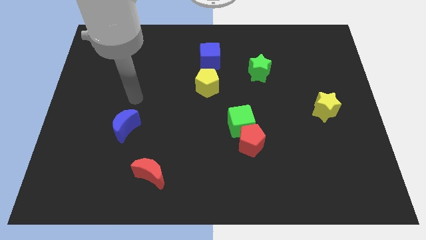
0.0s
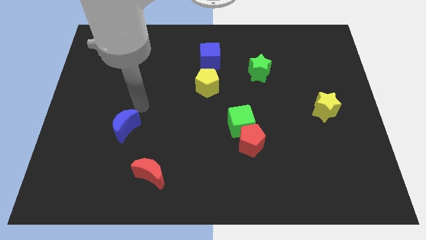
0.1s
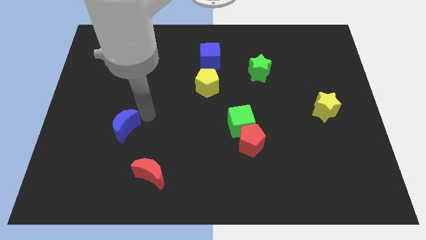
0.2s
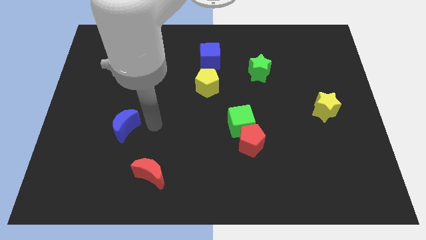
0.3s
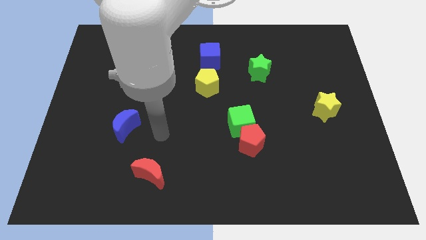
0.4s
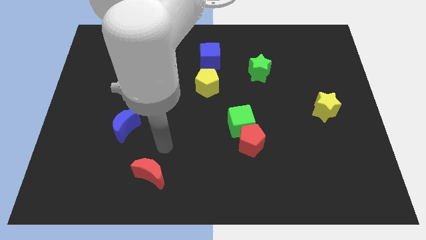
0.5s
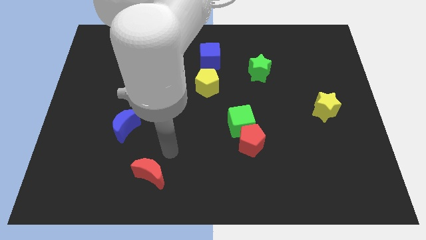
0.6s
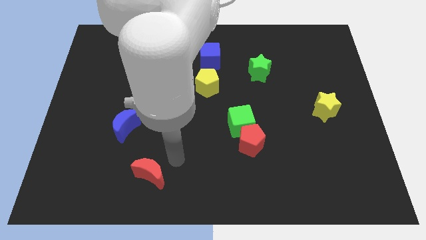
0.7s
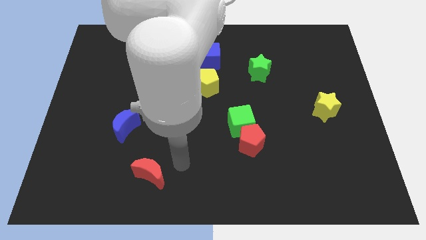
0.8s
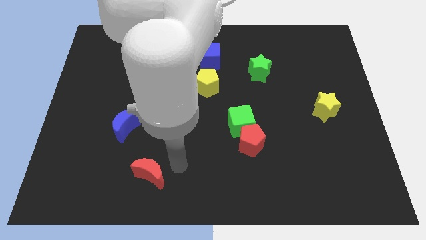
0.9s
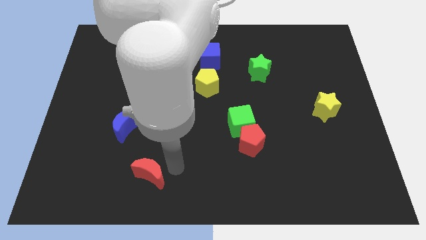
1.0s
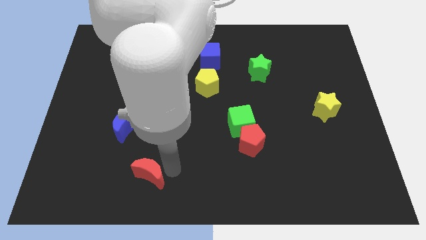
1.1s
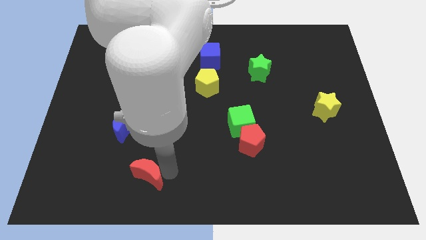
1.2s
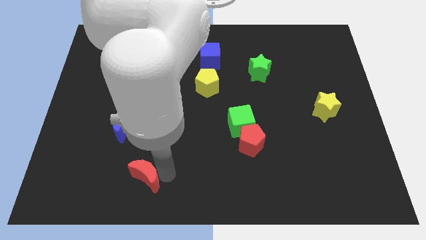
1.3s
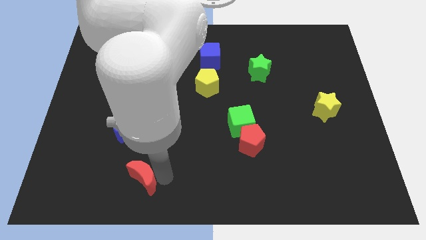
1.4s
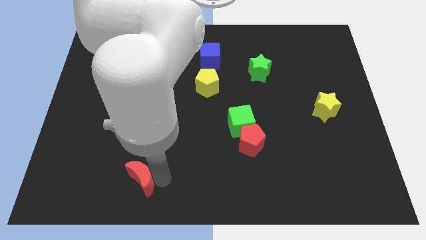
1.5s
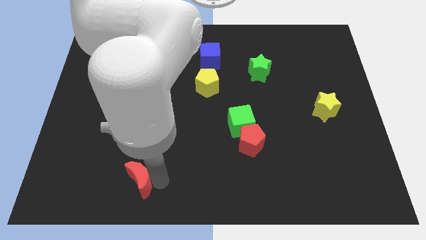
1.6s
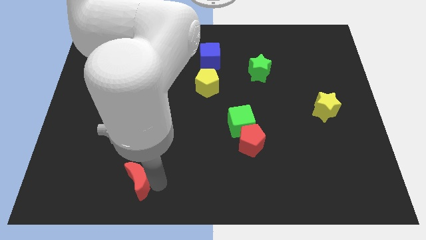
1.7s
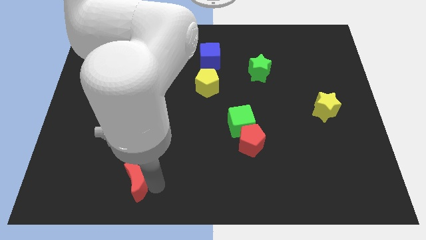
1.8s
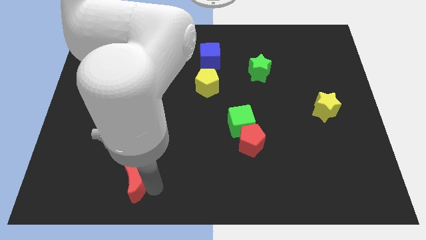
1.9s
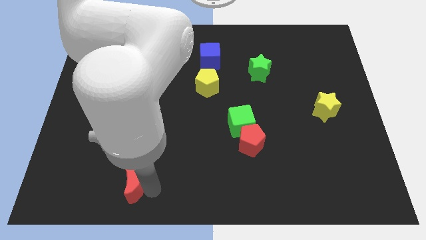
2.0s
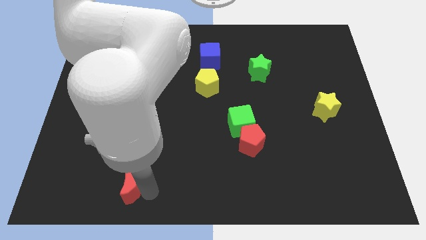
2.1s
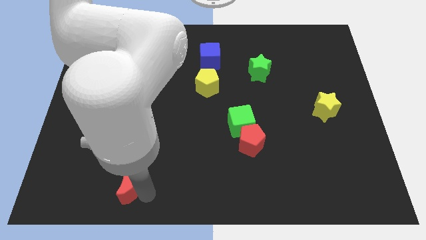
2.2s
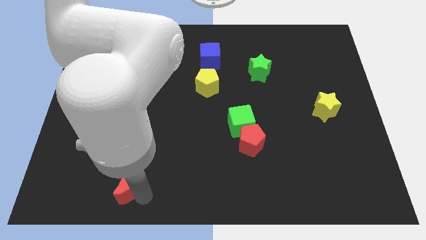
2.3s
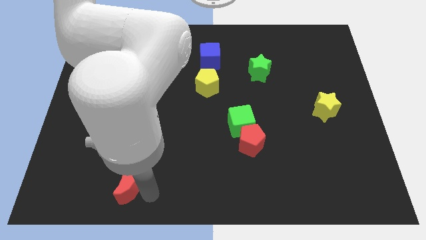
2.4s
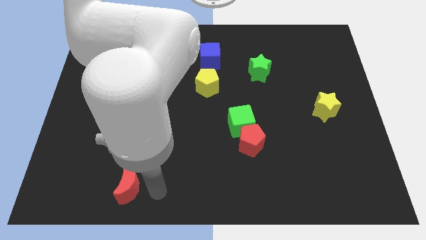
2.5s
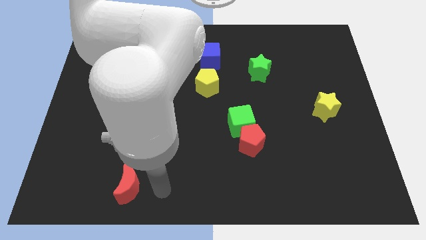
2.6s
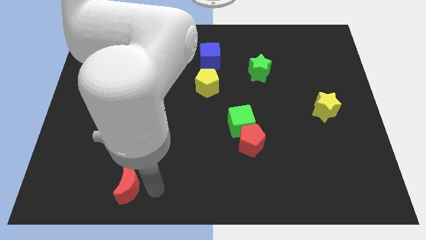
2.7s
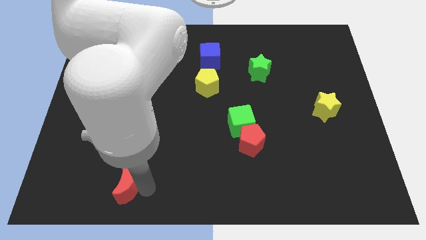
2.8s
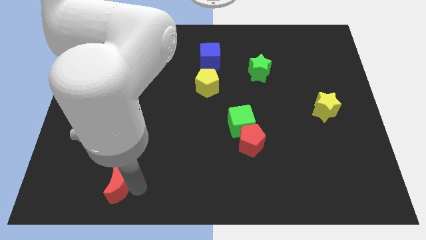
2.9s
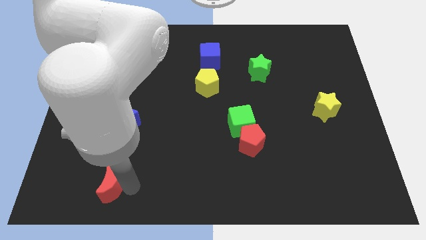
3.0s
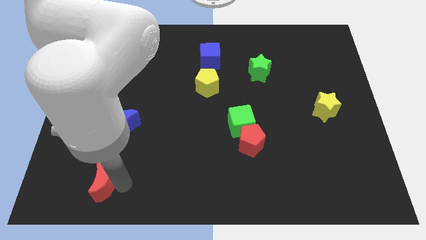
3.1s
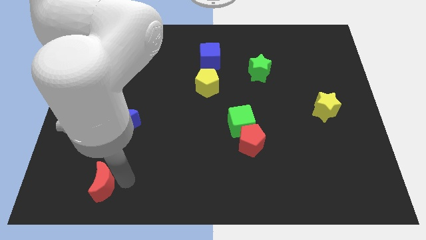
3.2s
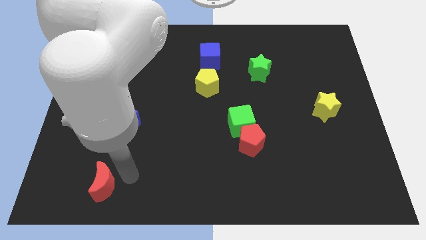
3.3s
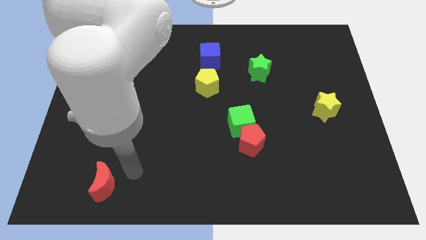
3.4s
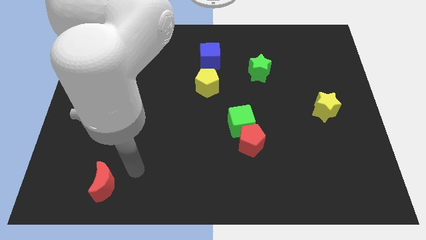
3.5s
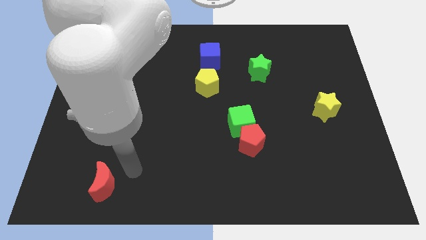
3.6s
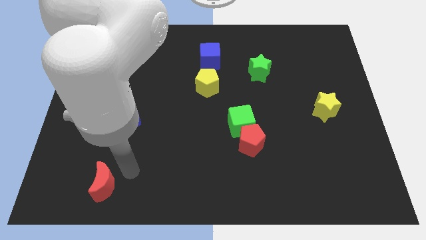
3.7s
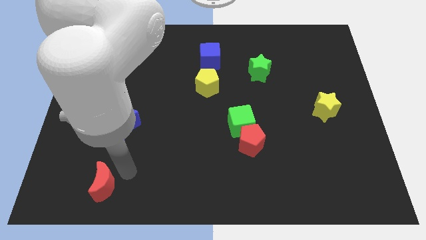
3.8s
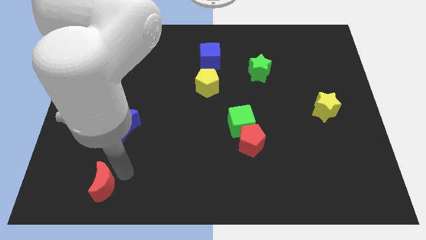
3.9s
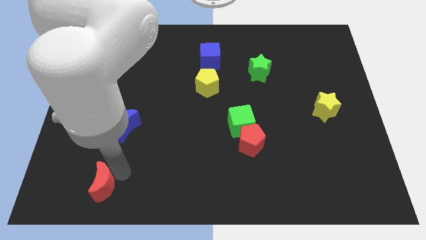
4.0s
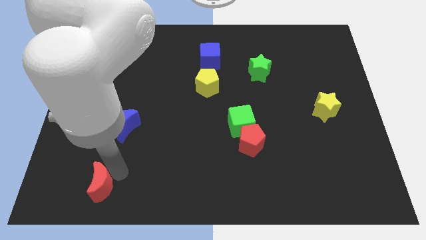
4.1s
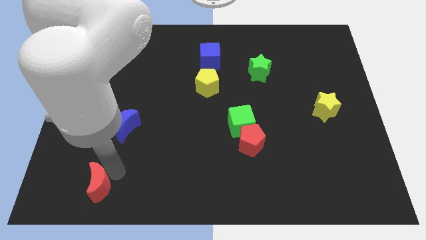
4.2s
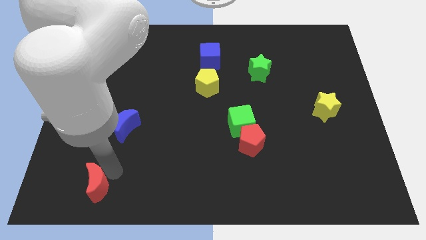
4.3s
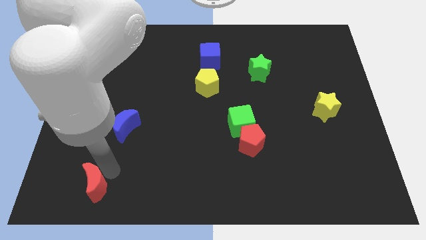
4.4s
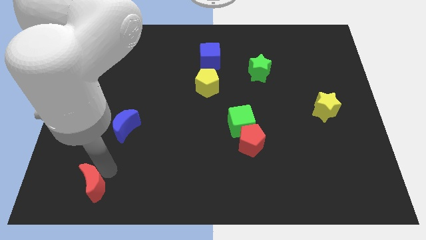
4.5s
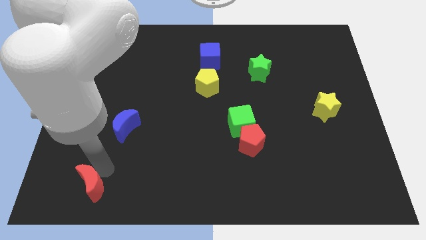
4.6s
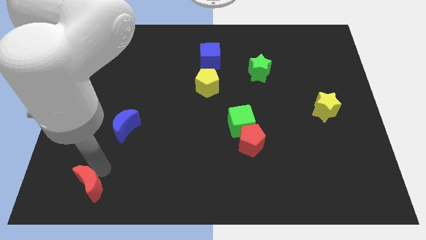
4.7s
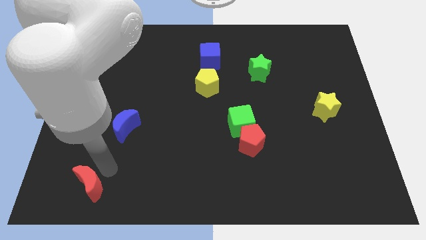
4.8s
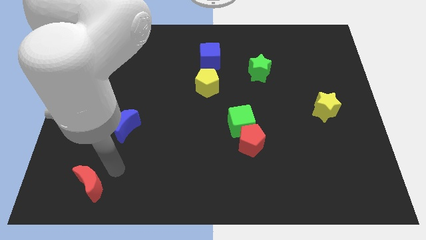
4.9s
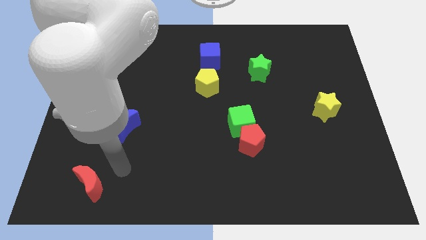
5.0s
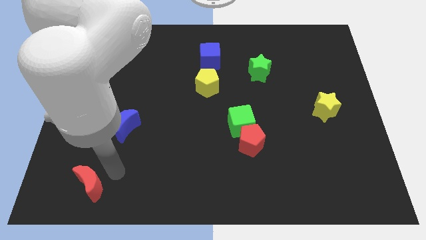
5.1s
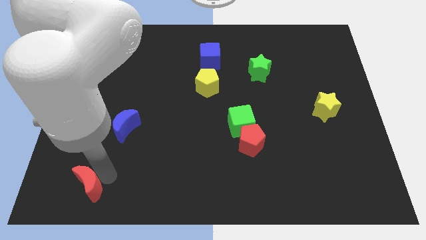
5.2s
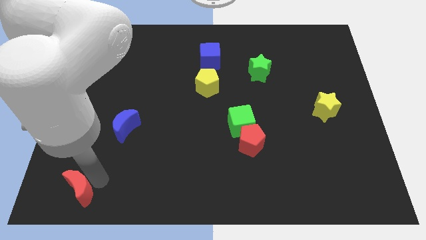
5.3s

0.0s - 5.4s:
slide the red moon to the bottom left of the board

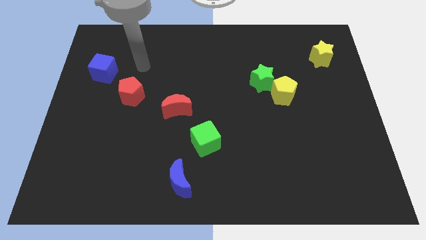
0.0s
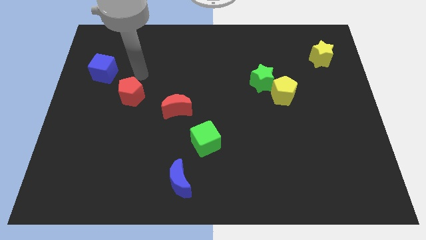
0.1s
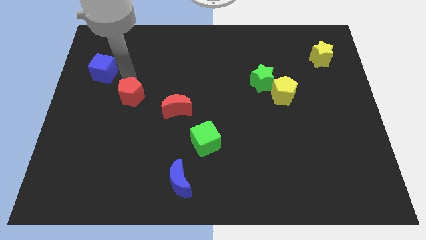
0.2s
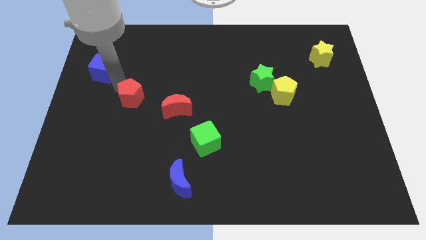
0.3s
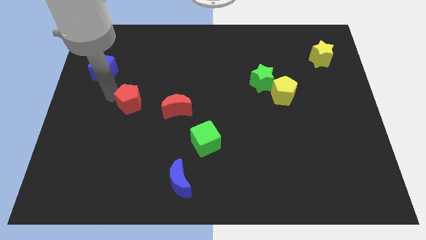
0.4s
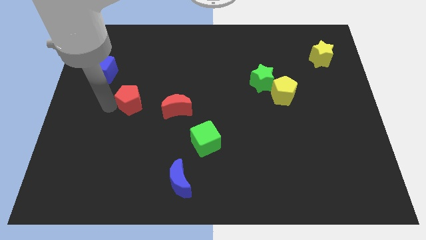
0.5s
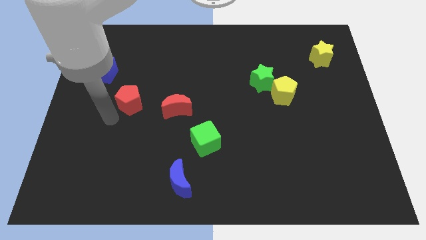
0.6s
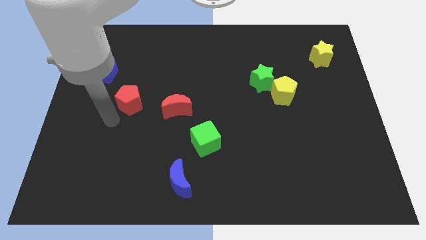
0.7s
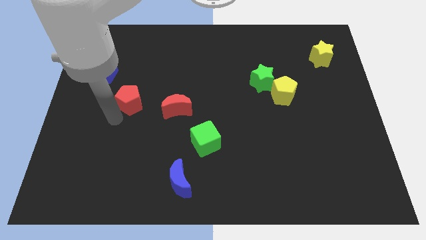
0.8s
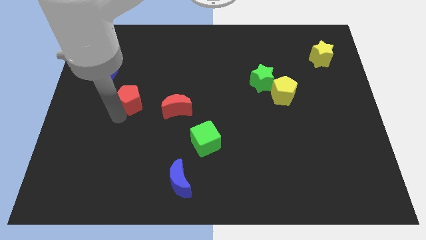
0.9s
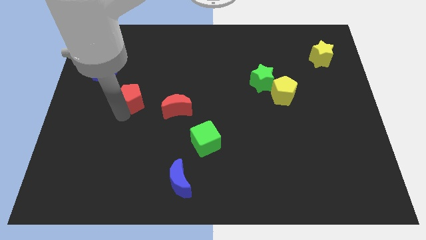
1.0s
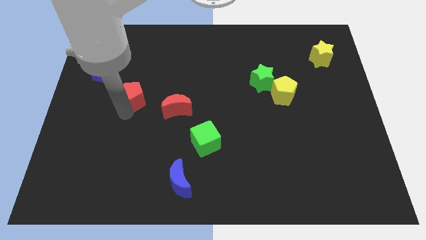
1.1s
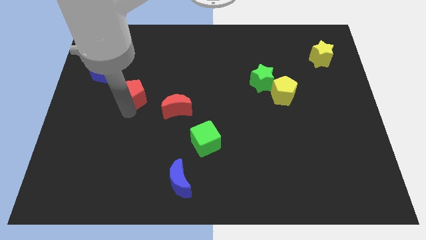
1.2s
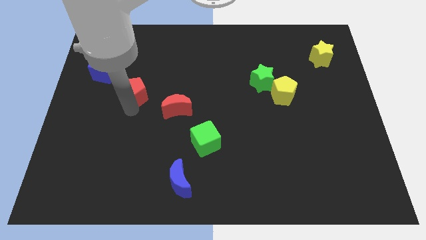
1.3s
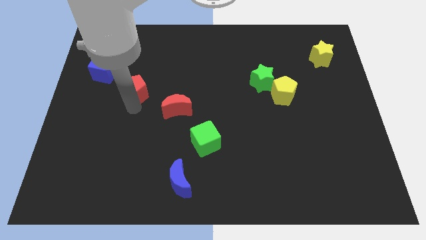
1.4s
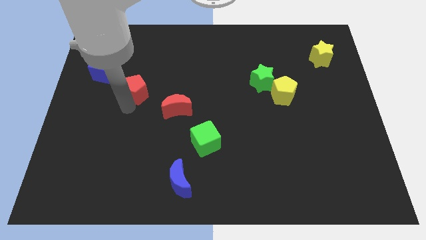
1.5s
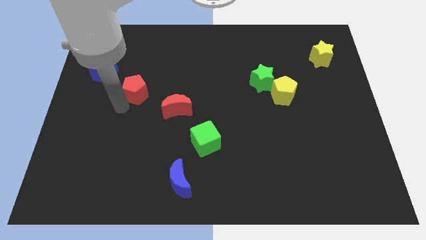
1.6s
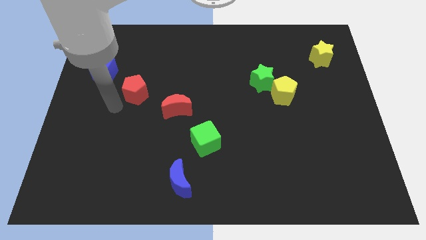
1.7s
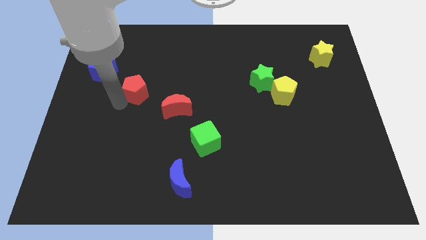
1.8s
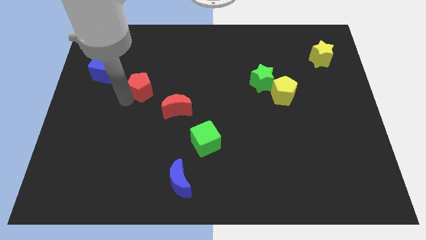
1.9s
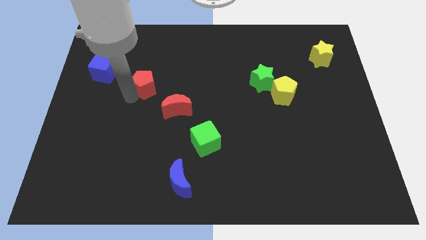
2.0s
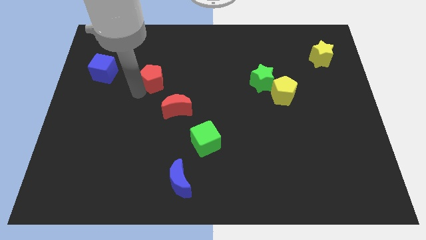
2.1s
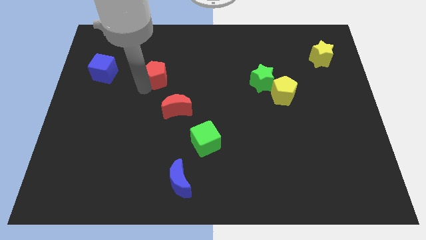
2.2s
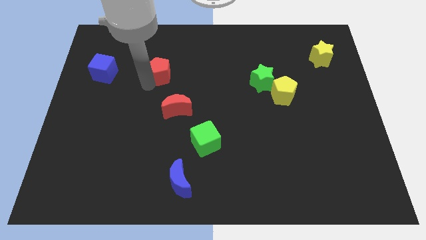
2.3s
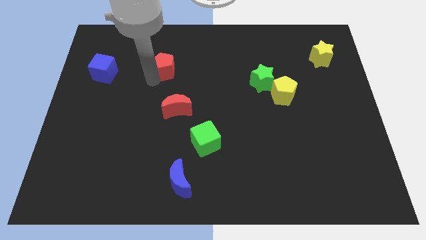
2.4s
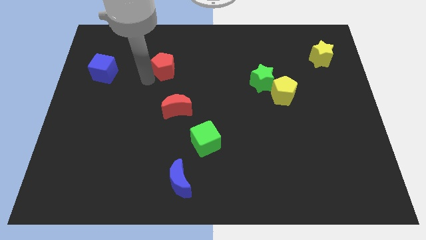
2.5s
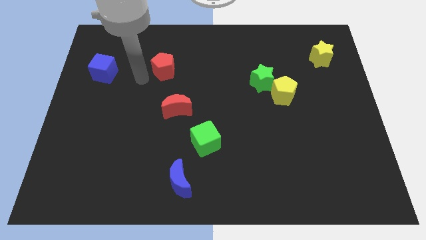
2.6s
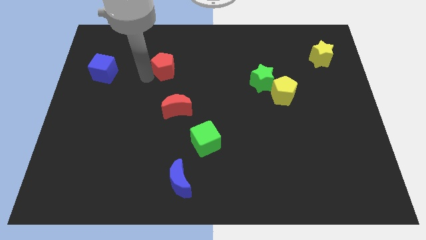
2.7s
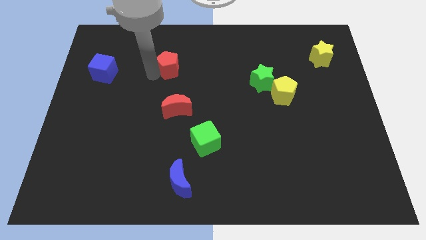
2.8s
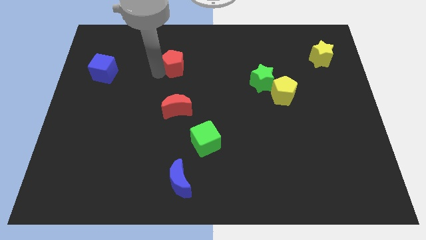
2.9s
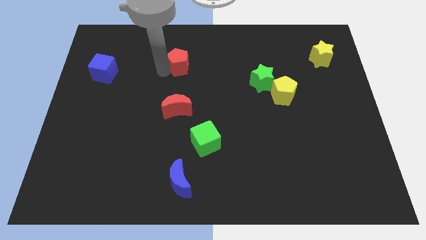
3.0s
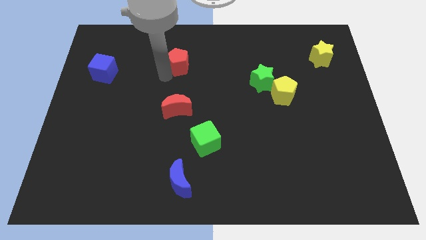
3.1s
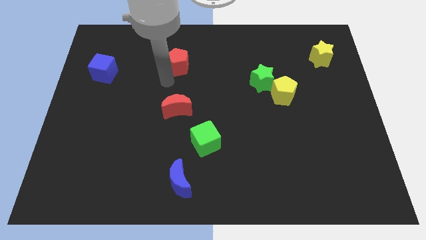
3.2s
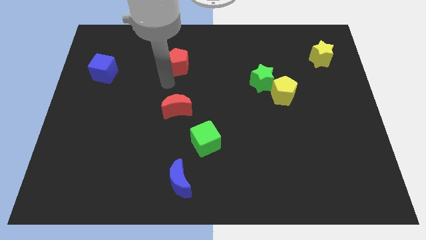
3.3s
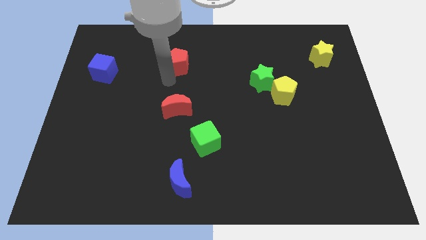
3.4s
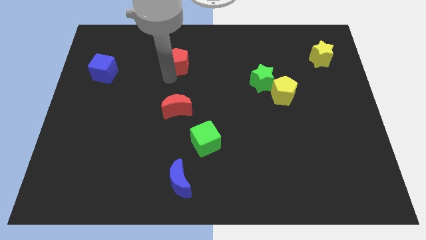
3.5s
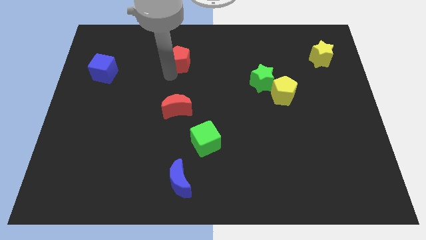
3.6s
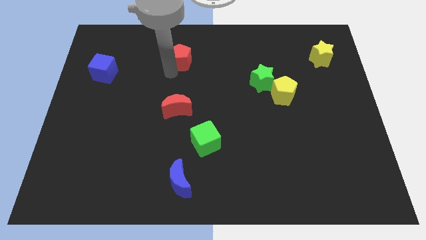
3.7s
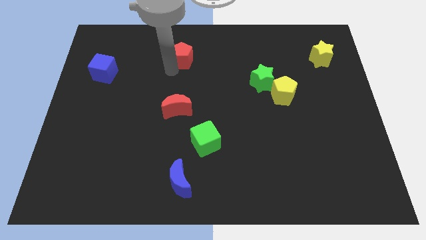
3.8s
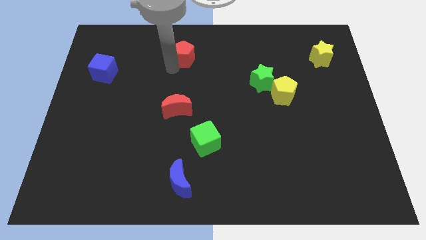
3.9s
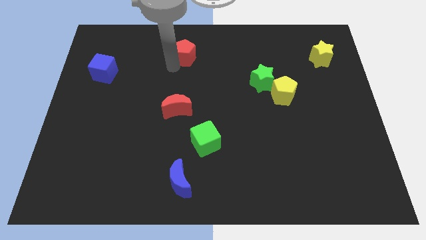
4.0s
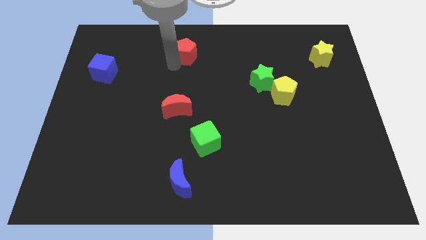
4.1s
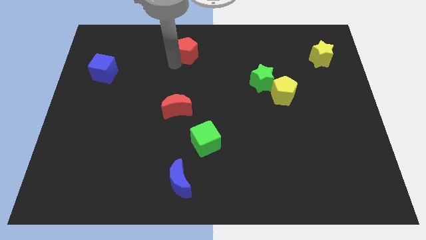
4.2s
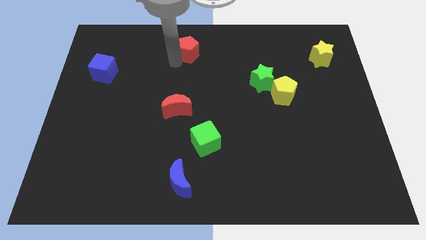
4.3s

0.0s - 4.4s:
put the red pentagon to the top
